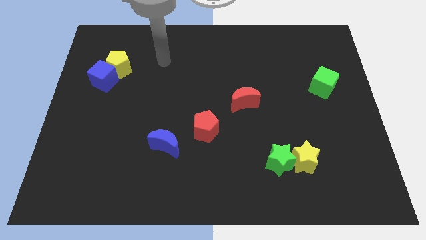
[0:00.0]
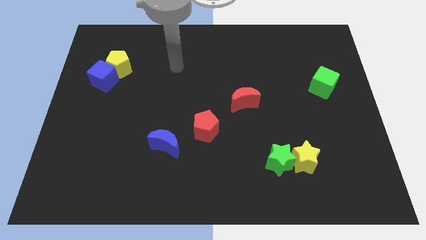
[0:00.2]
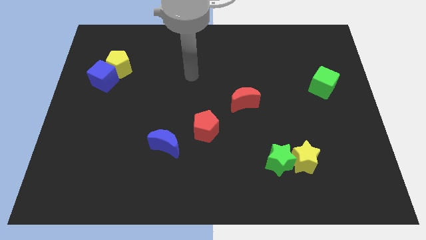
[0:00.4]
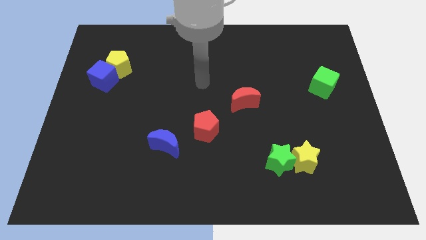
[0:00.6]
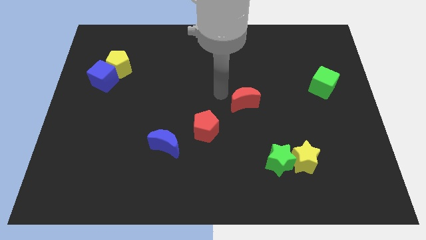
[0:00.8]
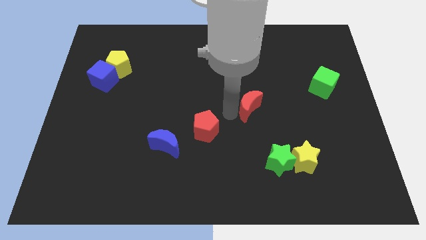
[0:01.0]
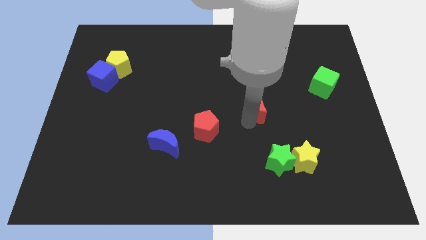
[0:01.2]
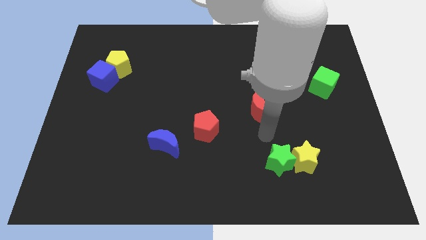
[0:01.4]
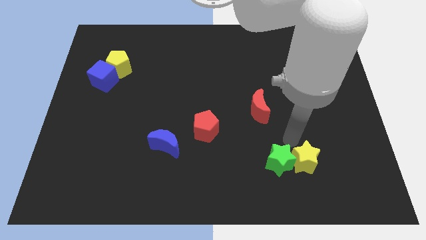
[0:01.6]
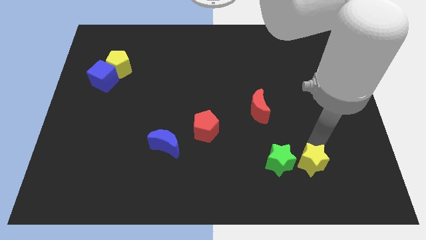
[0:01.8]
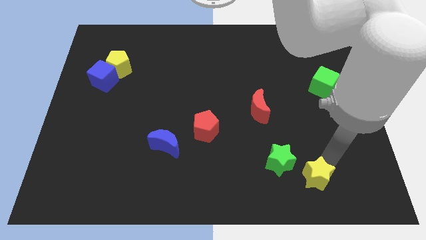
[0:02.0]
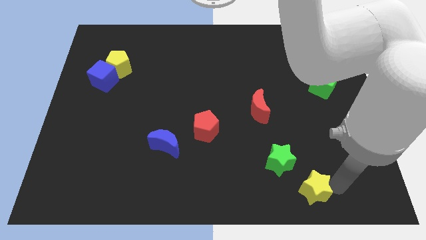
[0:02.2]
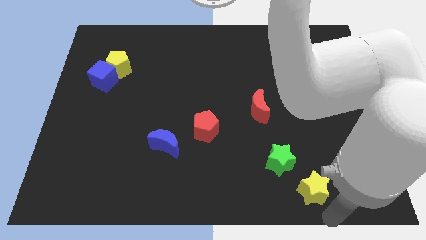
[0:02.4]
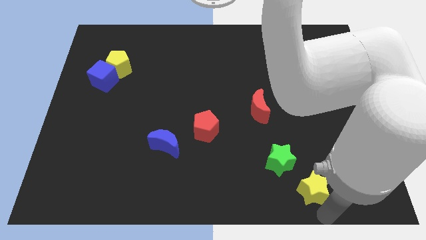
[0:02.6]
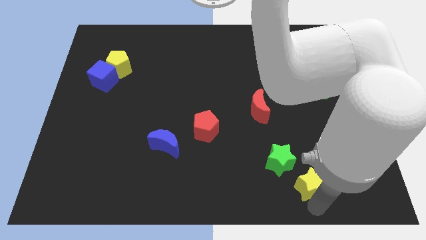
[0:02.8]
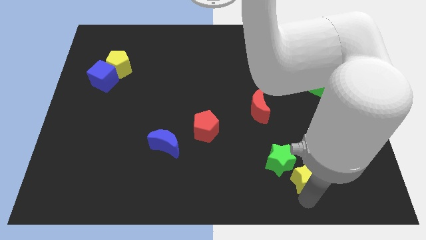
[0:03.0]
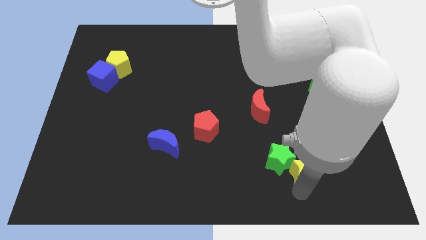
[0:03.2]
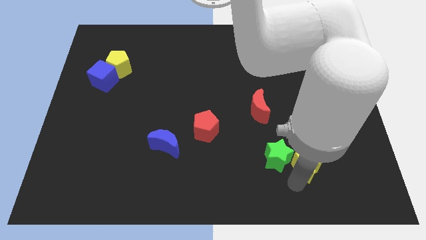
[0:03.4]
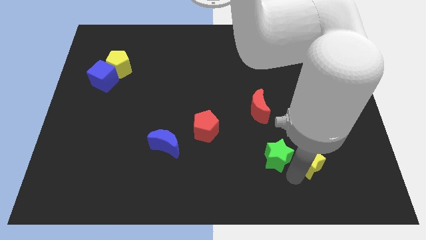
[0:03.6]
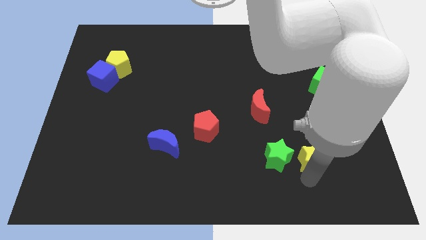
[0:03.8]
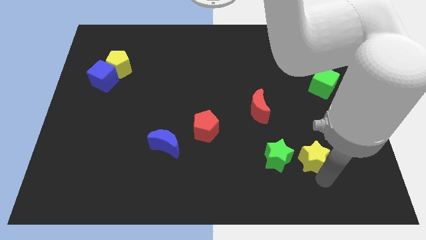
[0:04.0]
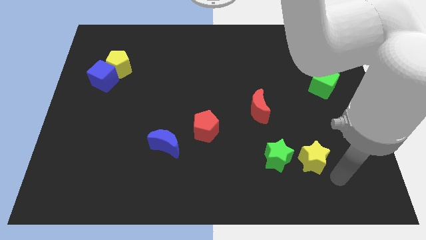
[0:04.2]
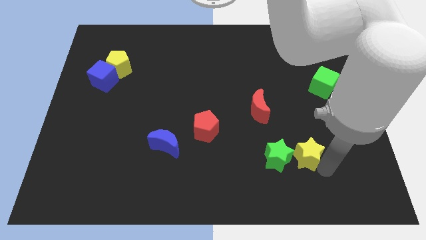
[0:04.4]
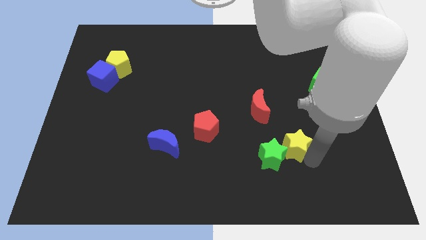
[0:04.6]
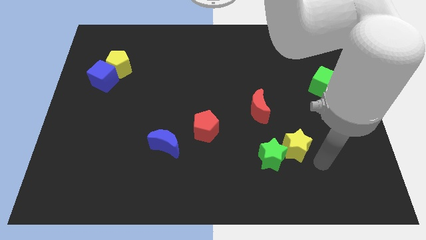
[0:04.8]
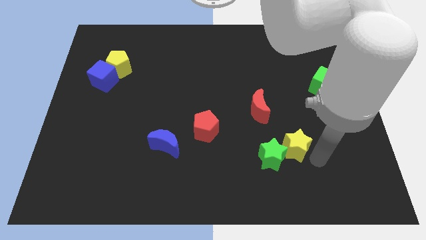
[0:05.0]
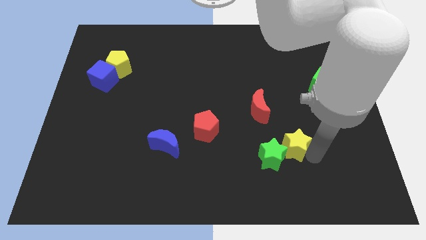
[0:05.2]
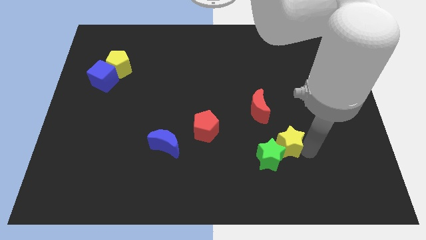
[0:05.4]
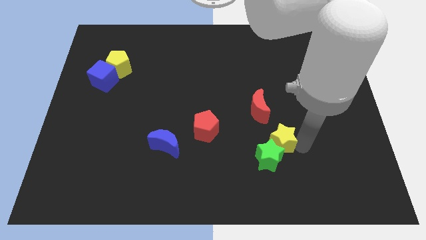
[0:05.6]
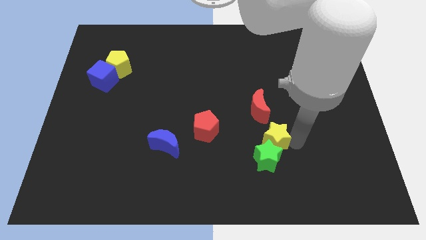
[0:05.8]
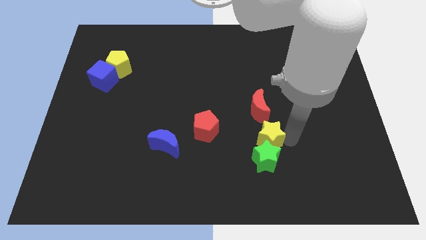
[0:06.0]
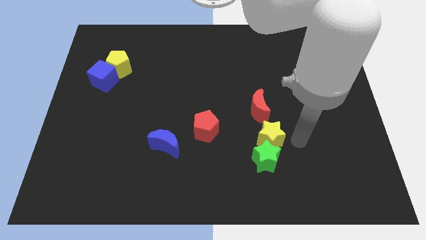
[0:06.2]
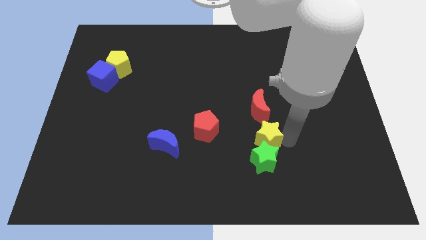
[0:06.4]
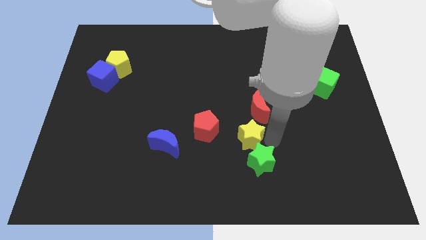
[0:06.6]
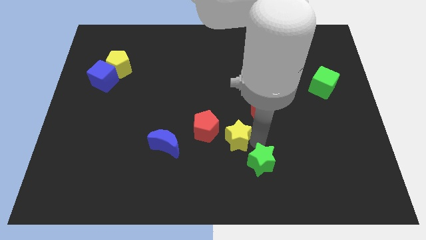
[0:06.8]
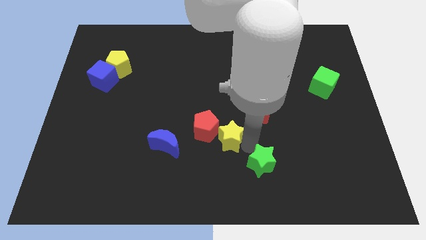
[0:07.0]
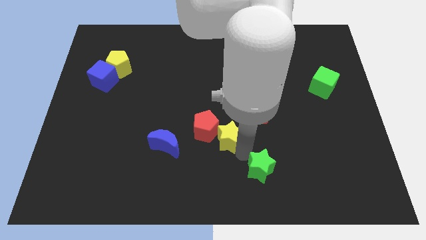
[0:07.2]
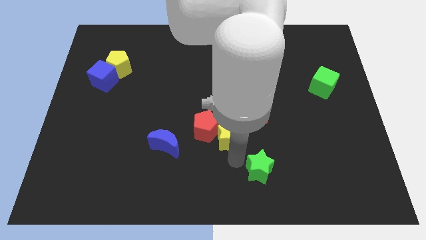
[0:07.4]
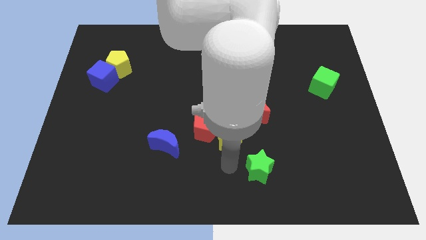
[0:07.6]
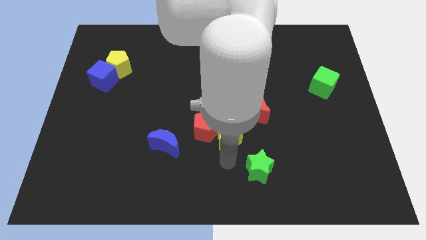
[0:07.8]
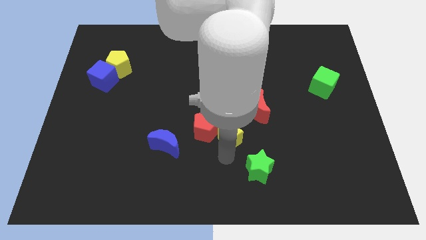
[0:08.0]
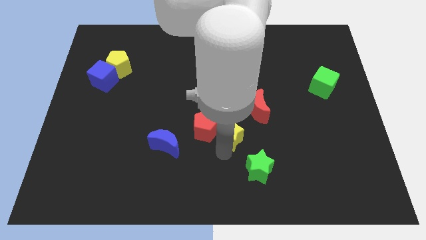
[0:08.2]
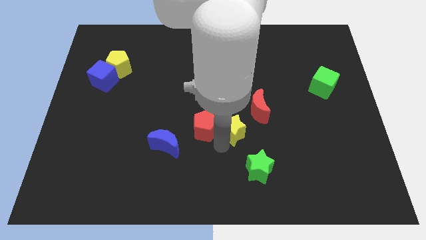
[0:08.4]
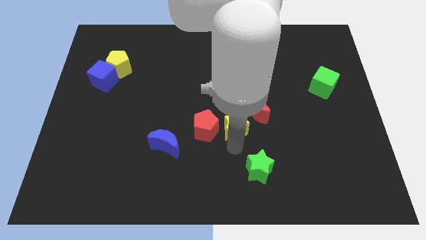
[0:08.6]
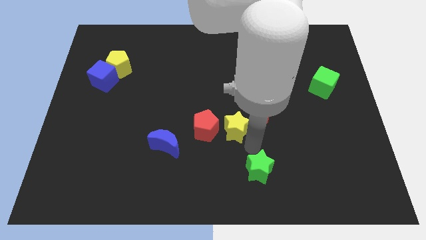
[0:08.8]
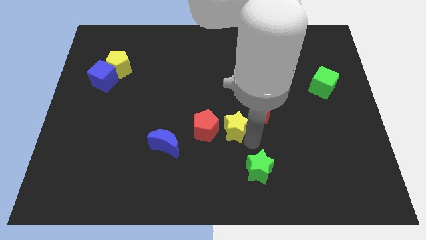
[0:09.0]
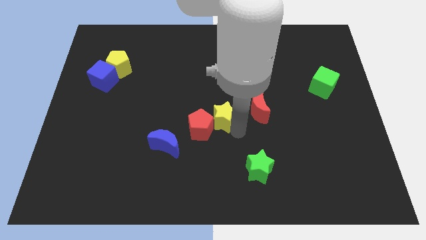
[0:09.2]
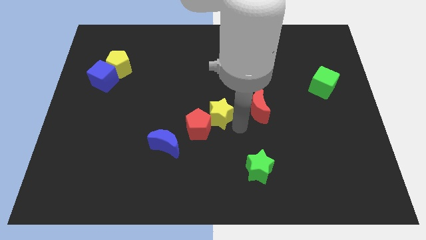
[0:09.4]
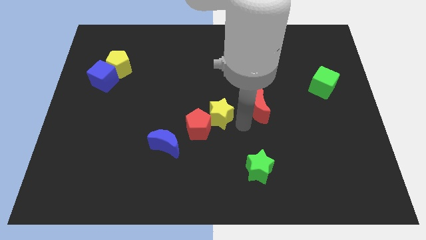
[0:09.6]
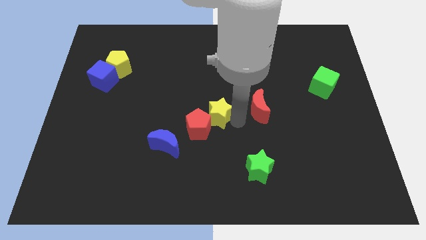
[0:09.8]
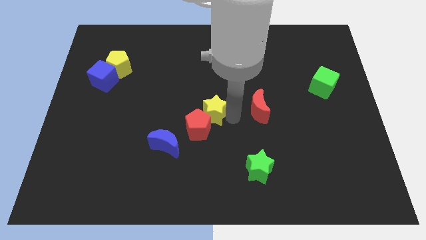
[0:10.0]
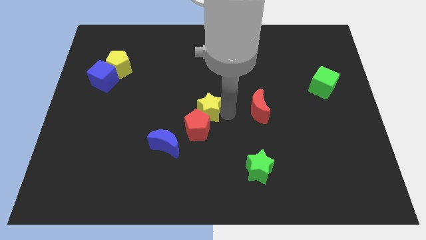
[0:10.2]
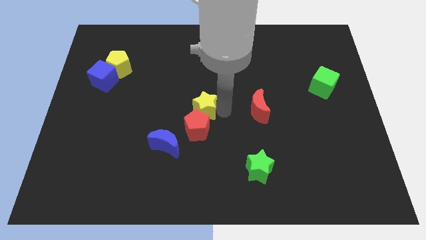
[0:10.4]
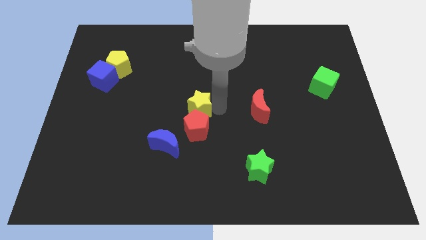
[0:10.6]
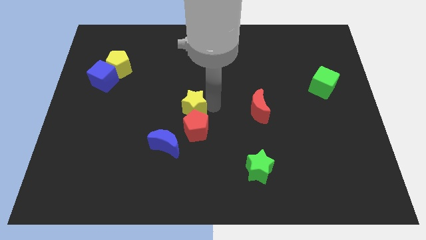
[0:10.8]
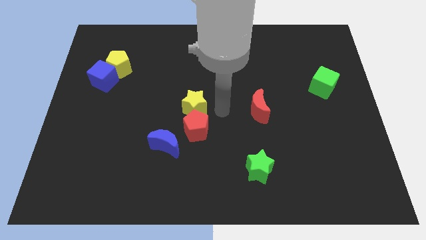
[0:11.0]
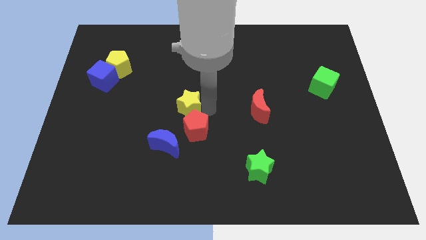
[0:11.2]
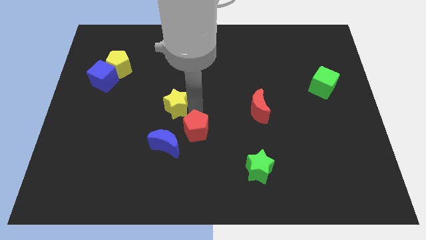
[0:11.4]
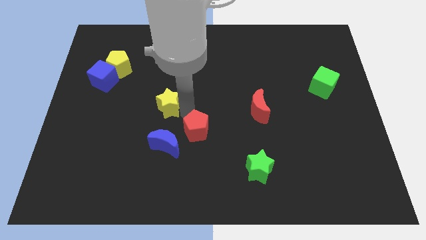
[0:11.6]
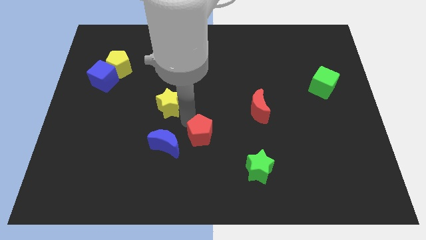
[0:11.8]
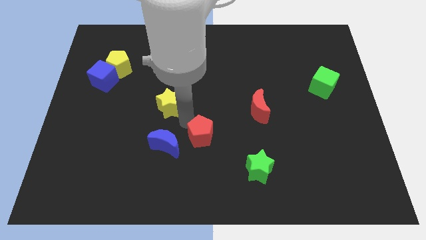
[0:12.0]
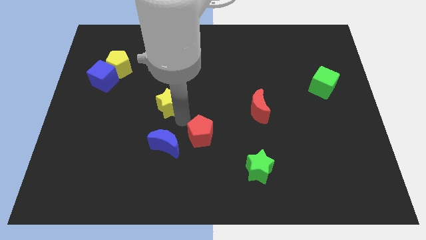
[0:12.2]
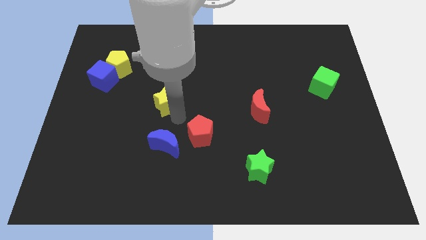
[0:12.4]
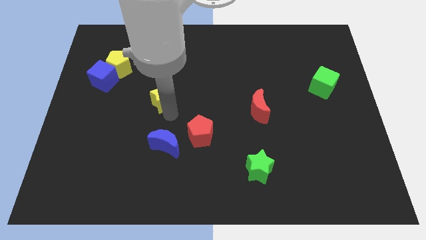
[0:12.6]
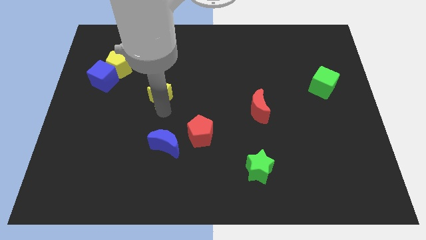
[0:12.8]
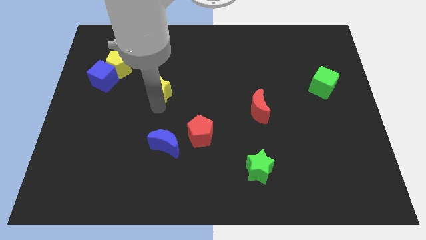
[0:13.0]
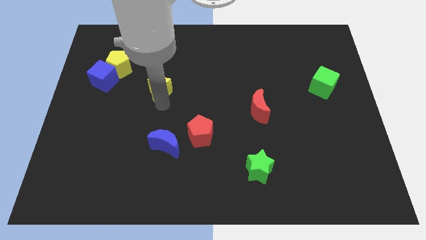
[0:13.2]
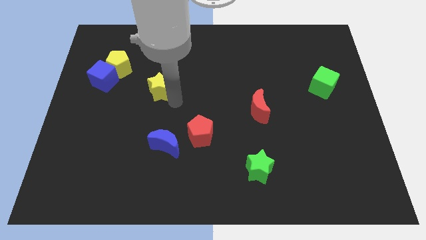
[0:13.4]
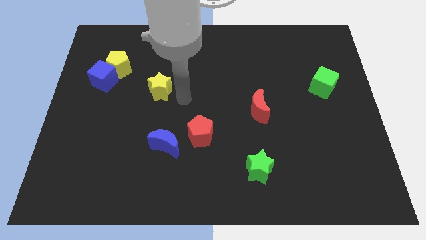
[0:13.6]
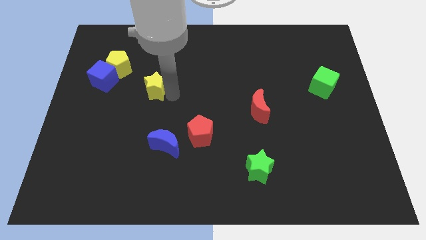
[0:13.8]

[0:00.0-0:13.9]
move the yellow star to the bottom right of the yellow pentagon
